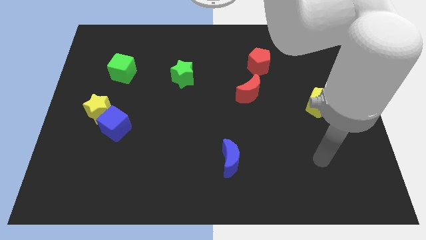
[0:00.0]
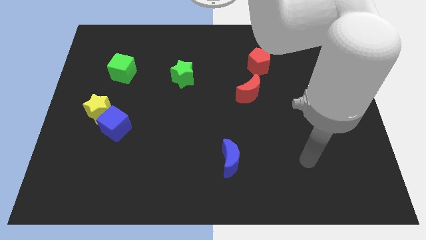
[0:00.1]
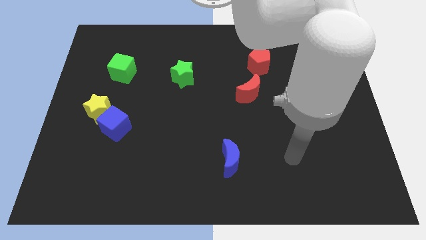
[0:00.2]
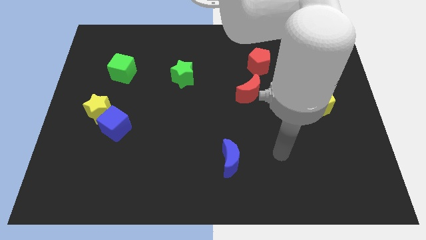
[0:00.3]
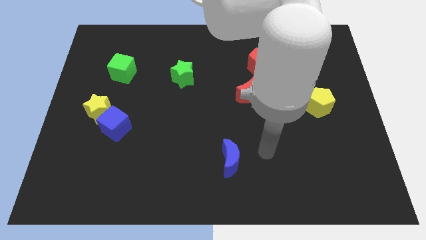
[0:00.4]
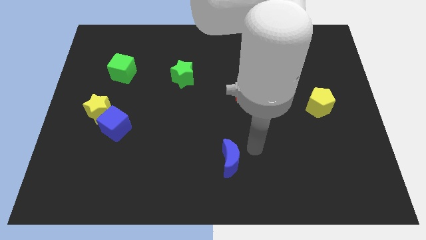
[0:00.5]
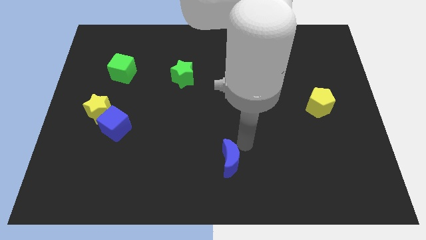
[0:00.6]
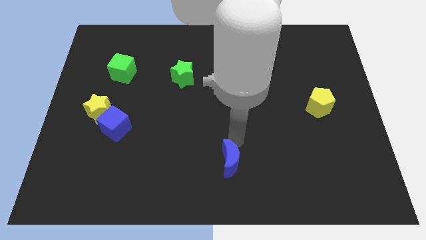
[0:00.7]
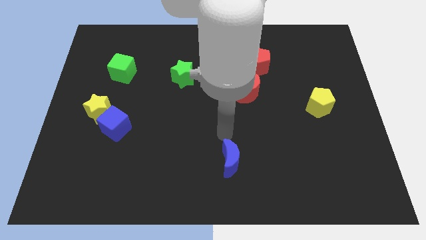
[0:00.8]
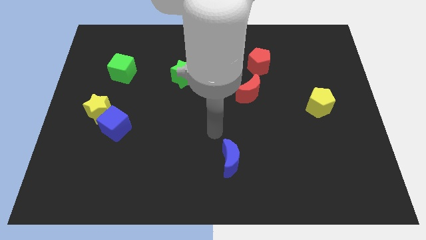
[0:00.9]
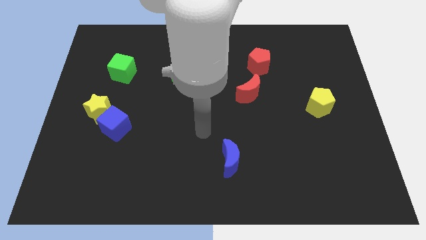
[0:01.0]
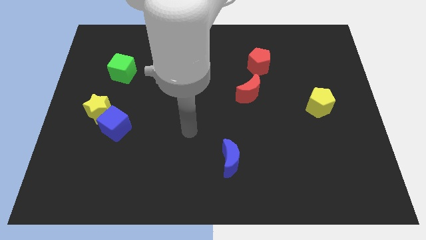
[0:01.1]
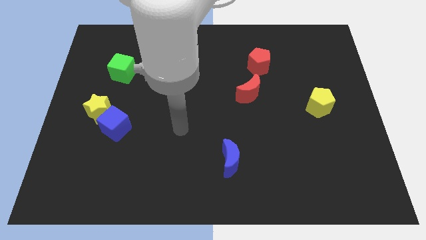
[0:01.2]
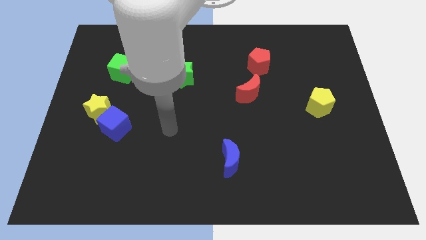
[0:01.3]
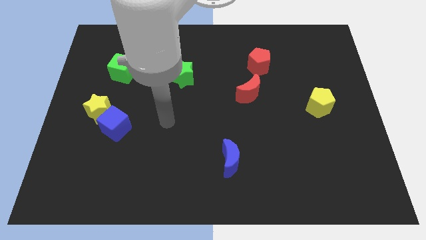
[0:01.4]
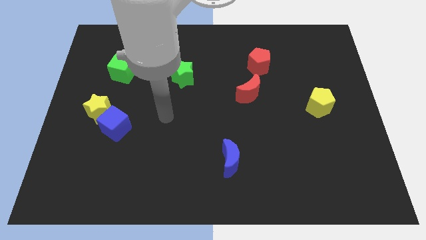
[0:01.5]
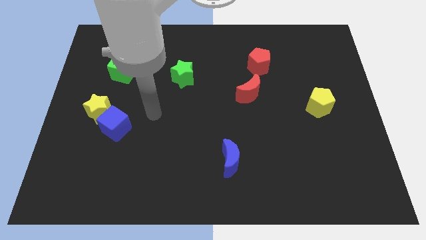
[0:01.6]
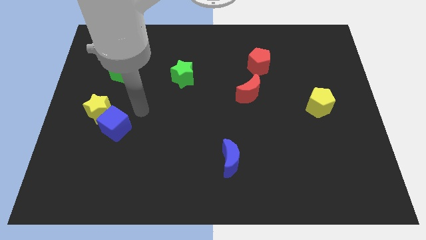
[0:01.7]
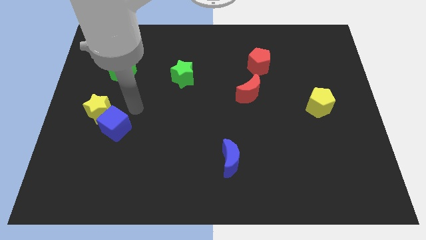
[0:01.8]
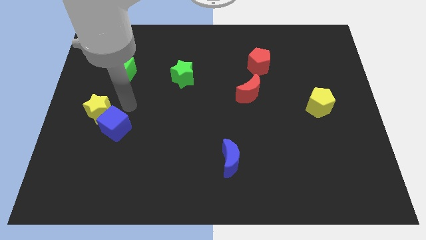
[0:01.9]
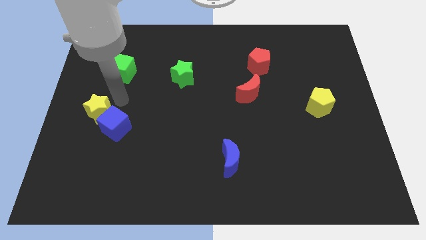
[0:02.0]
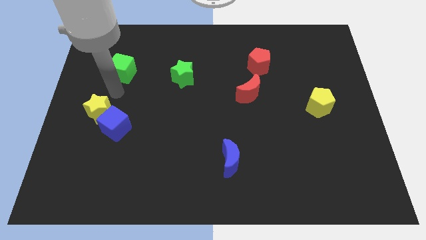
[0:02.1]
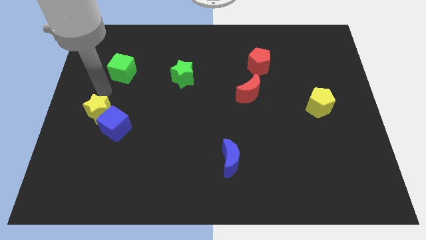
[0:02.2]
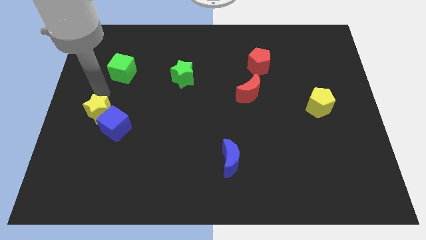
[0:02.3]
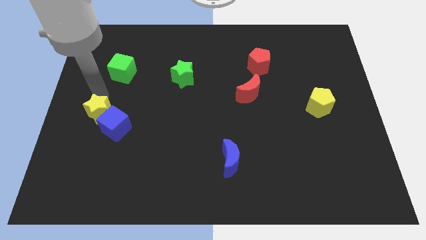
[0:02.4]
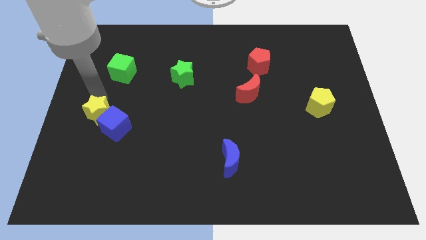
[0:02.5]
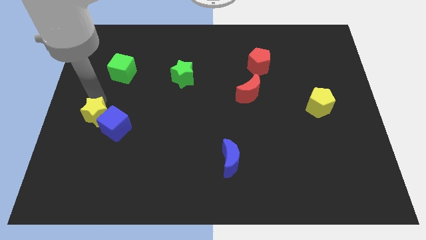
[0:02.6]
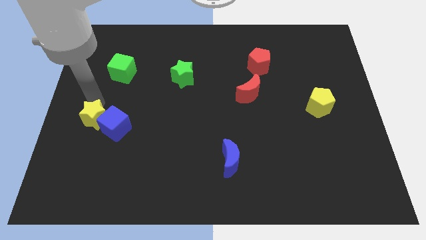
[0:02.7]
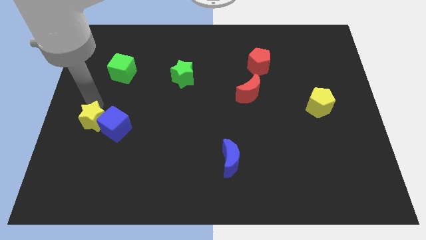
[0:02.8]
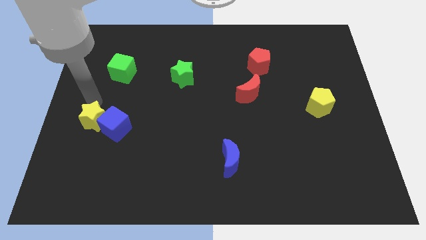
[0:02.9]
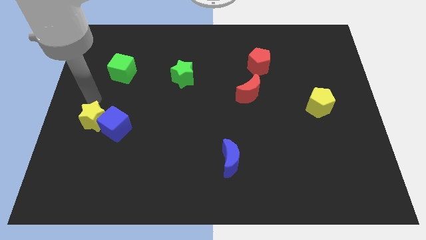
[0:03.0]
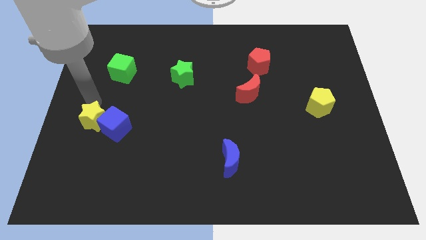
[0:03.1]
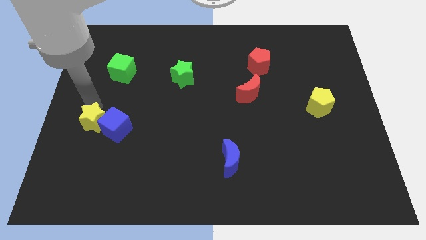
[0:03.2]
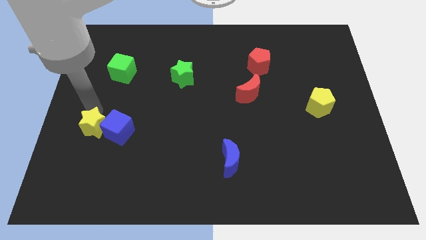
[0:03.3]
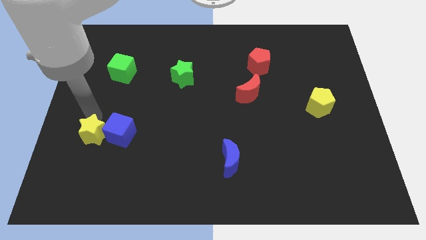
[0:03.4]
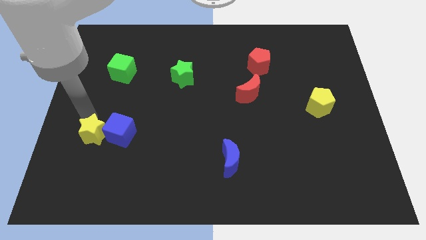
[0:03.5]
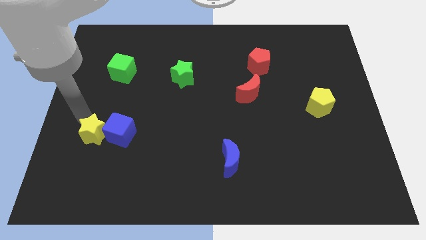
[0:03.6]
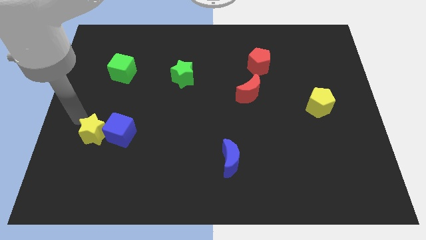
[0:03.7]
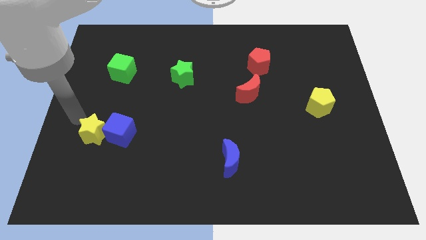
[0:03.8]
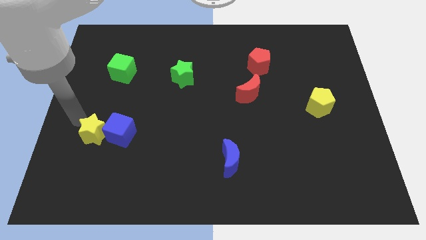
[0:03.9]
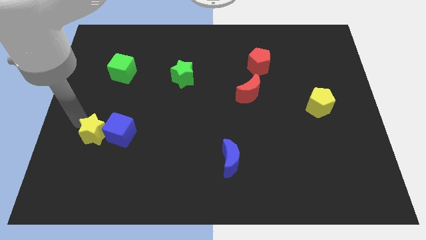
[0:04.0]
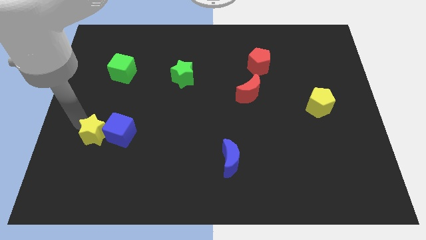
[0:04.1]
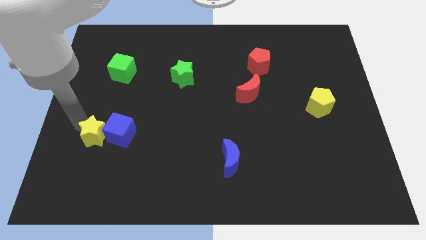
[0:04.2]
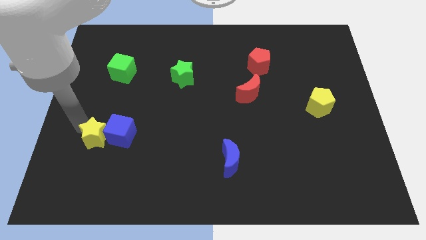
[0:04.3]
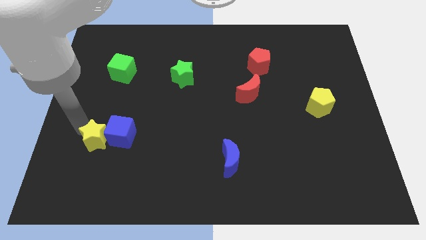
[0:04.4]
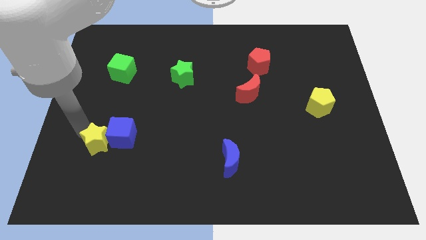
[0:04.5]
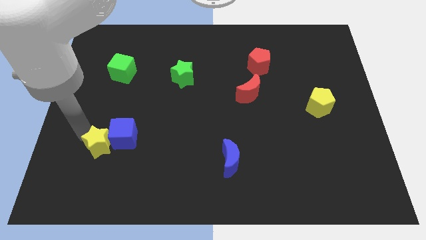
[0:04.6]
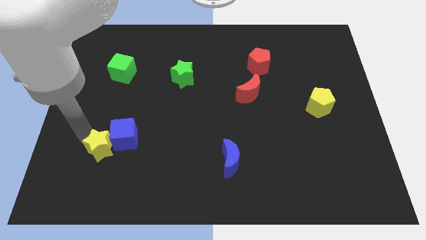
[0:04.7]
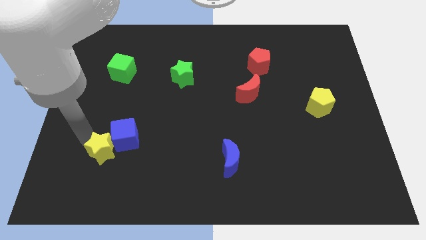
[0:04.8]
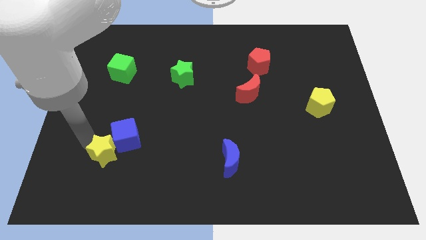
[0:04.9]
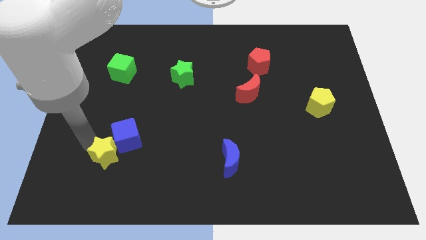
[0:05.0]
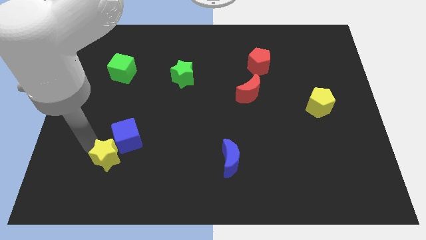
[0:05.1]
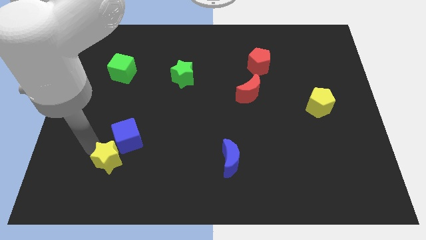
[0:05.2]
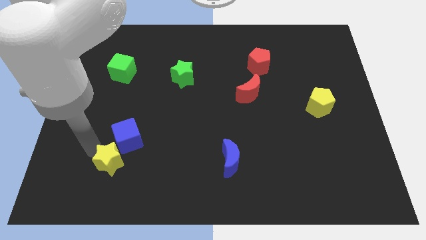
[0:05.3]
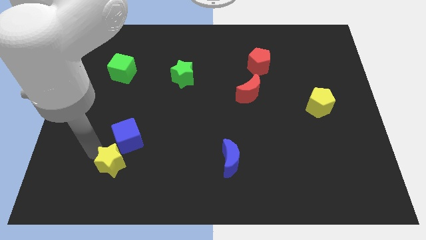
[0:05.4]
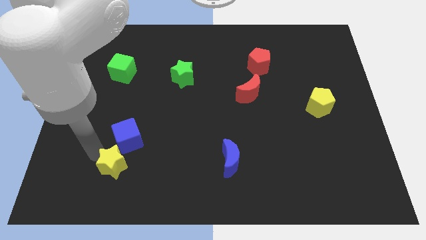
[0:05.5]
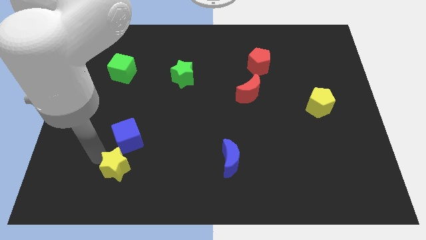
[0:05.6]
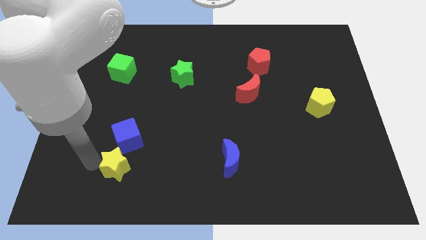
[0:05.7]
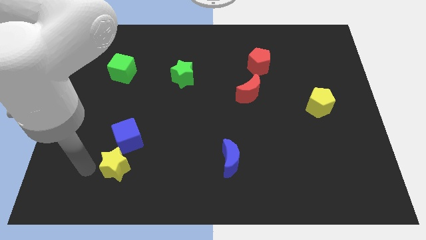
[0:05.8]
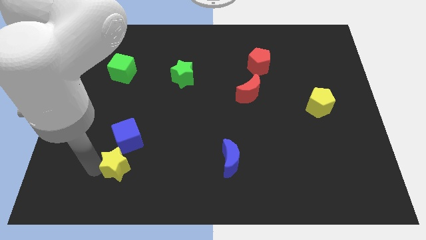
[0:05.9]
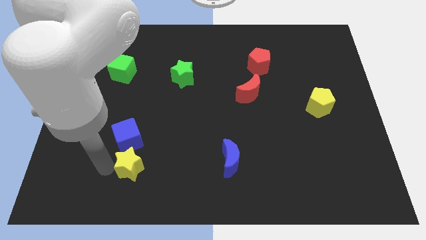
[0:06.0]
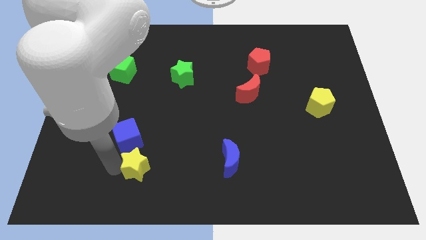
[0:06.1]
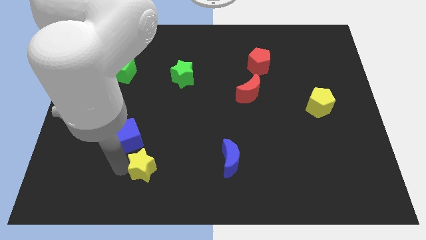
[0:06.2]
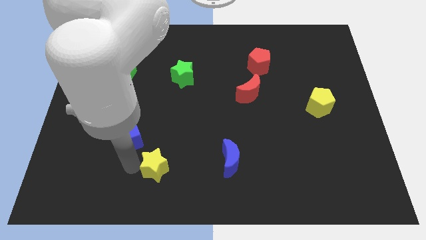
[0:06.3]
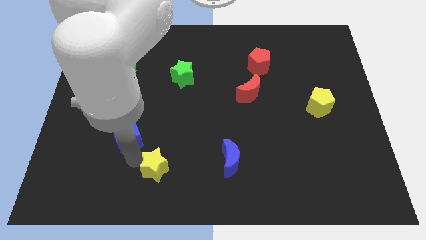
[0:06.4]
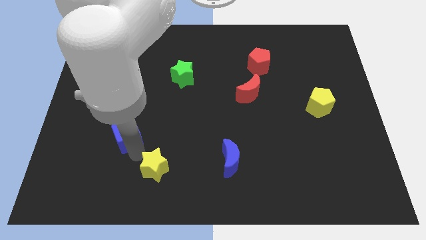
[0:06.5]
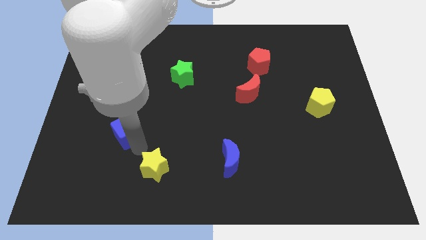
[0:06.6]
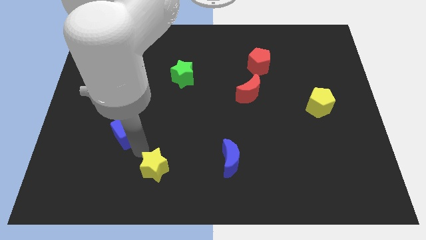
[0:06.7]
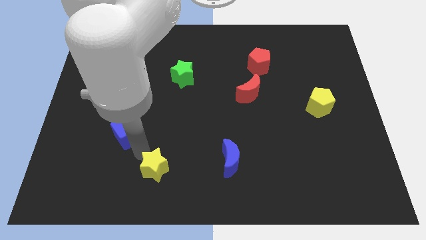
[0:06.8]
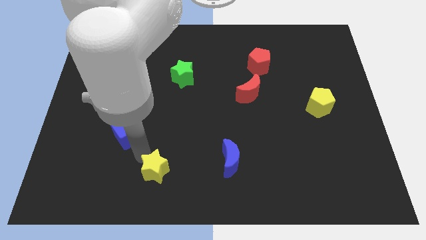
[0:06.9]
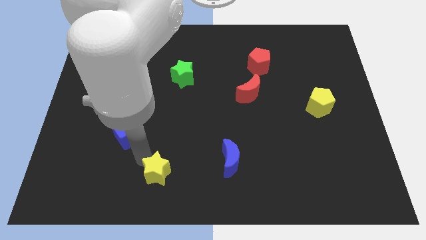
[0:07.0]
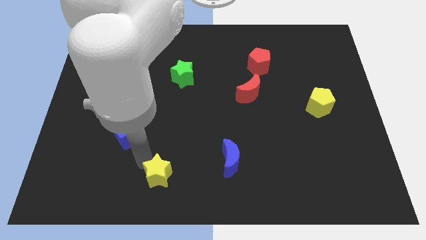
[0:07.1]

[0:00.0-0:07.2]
push the yellow star to the bottom
